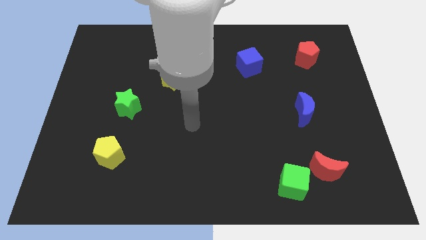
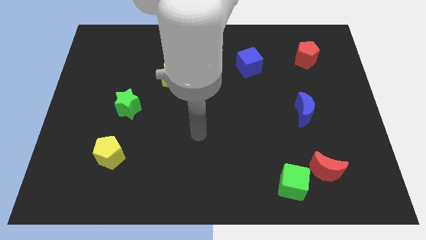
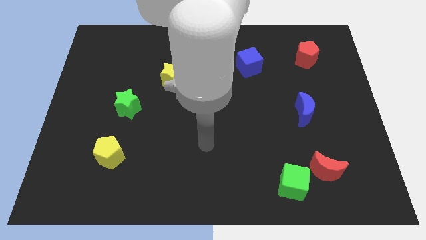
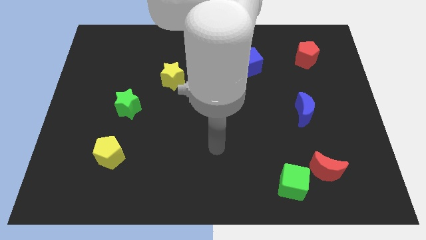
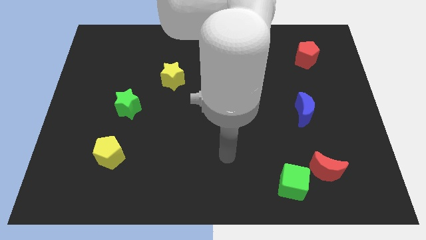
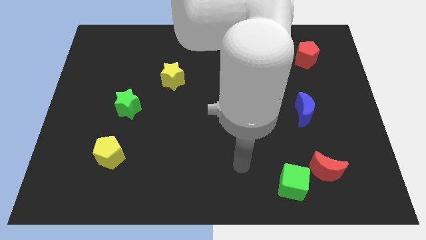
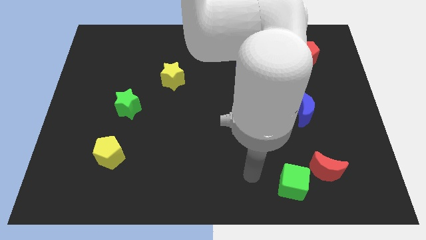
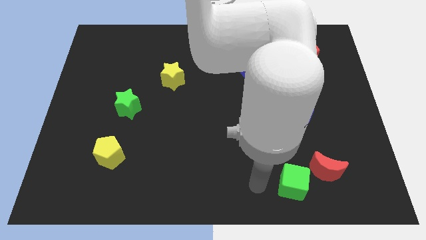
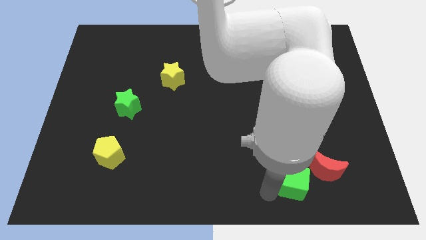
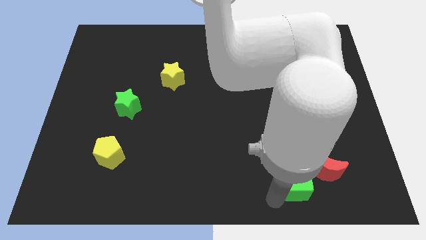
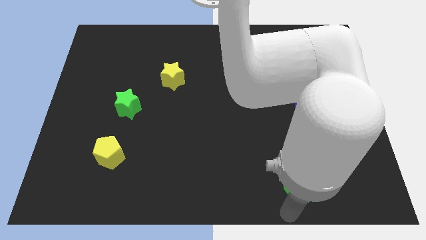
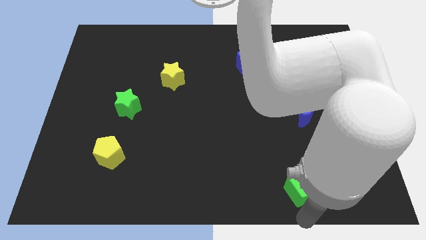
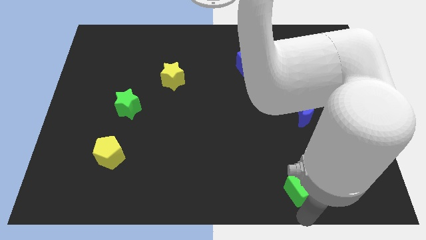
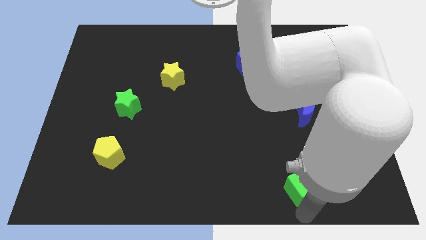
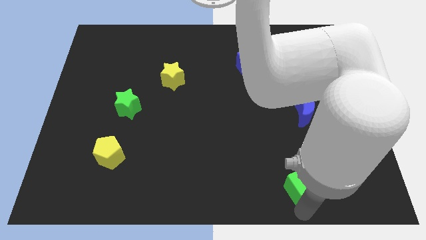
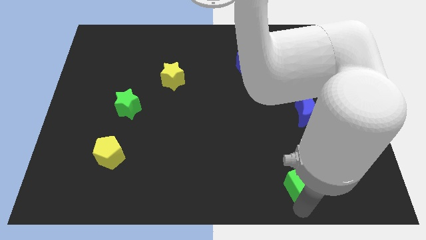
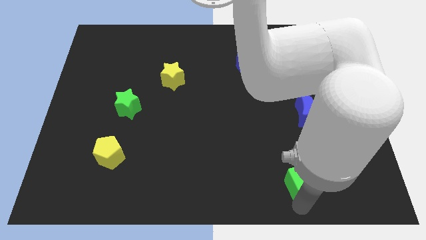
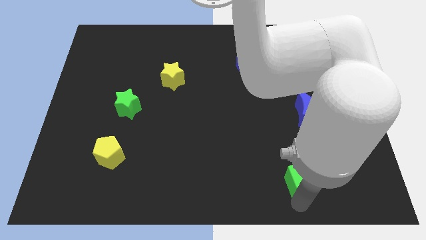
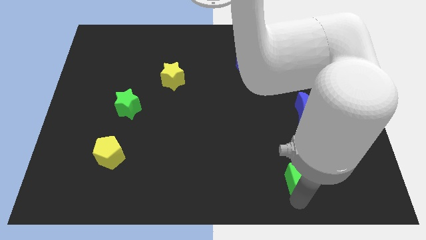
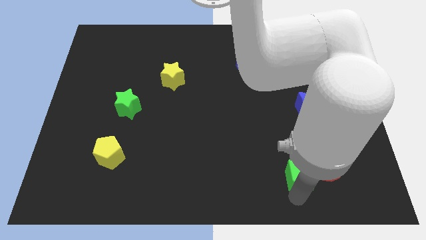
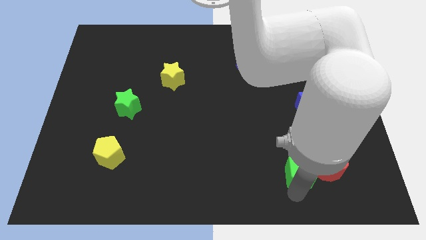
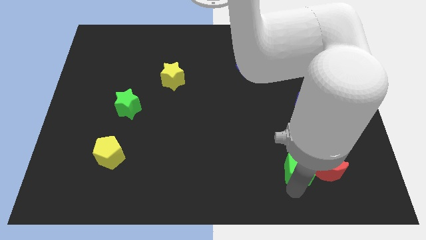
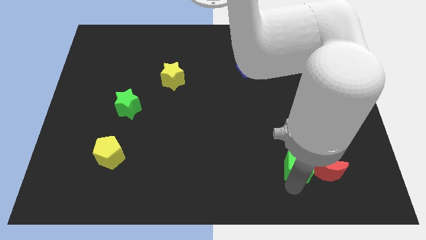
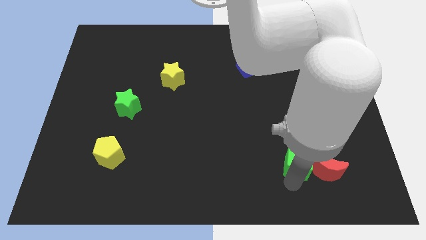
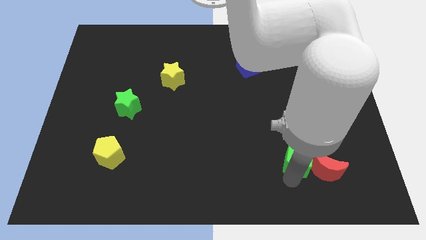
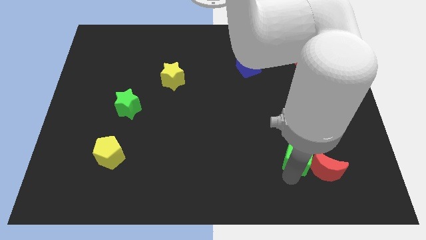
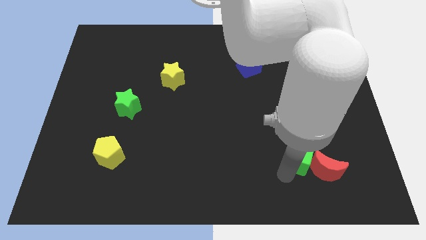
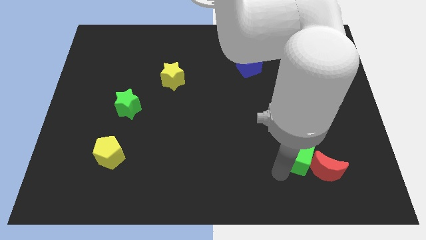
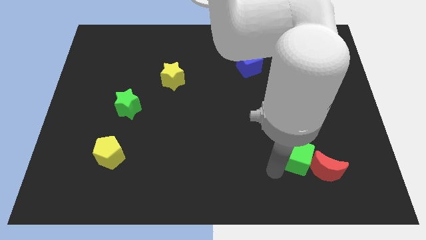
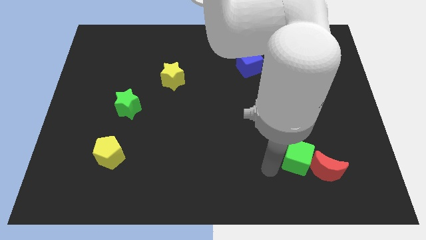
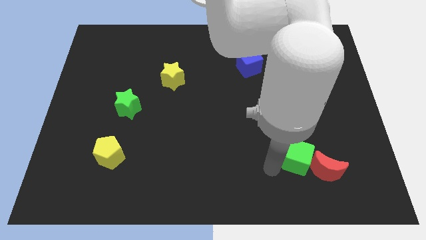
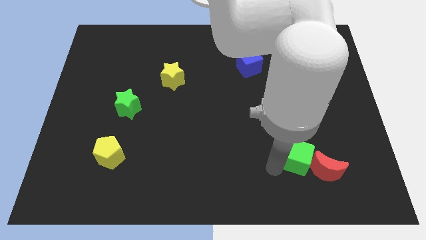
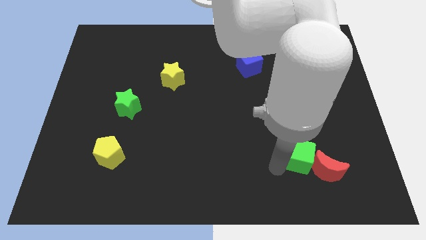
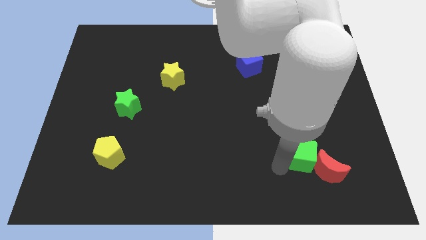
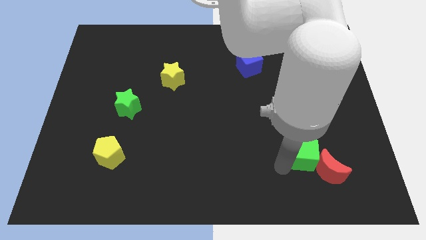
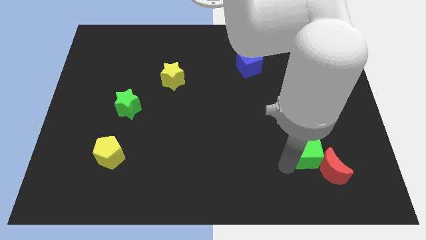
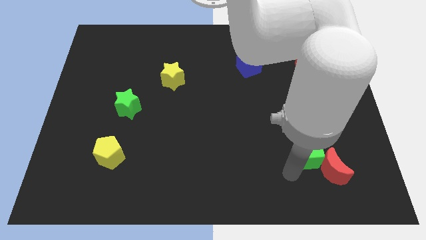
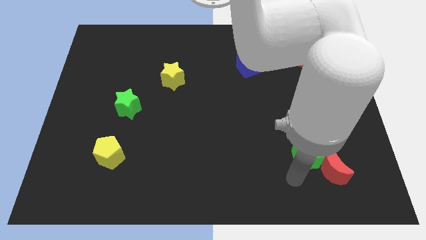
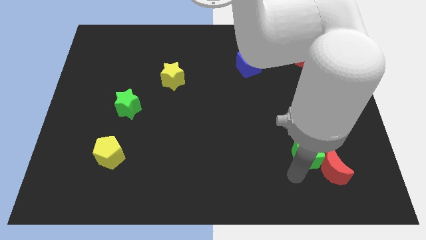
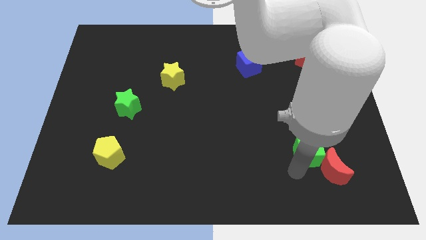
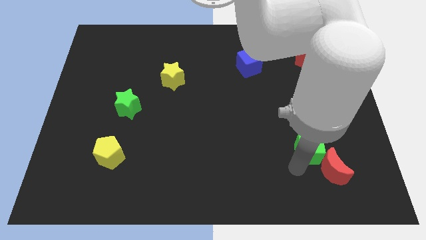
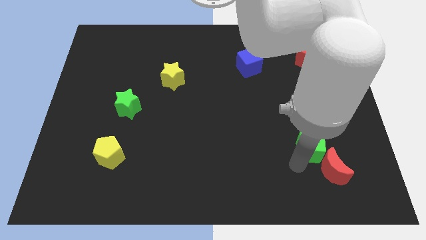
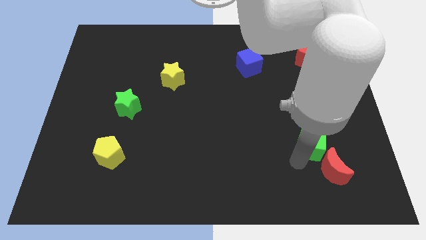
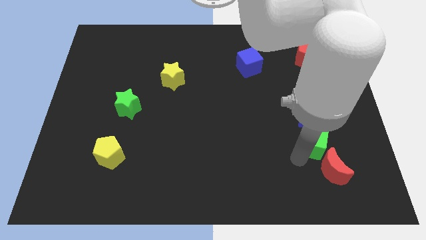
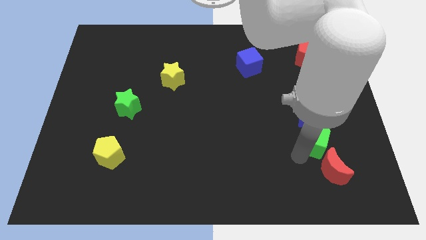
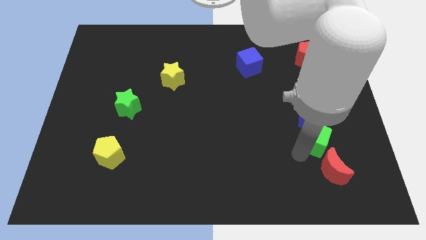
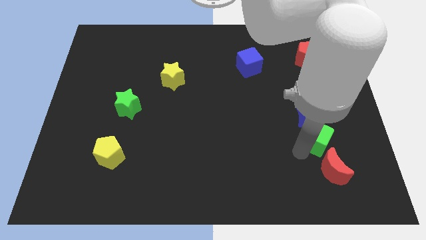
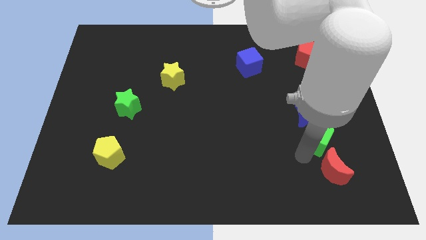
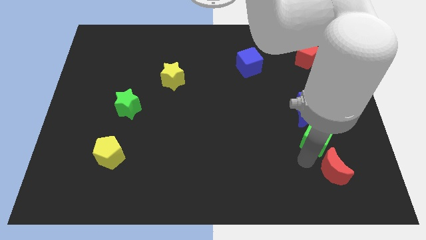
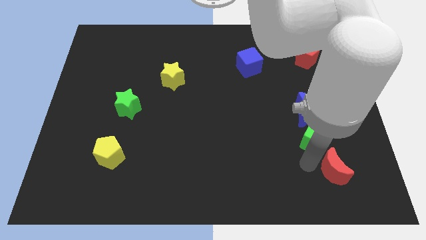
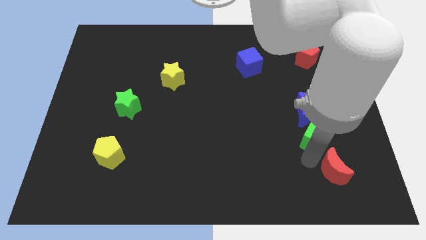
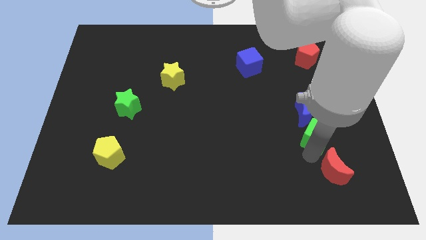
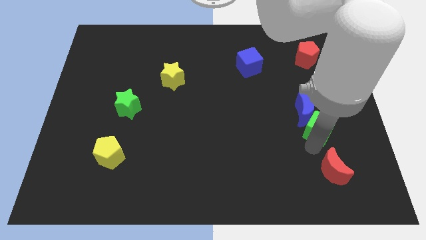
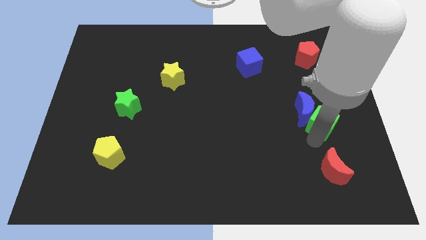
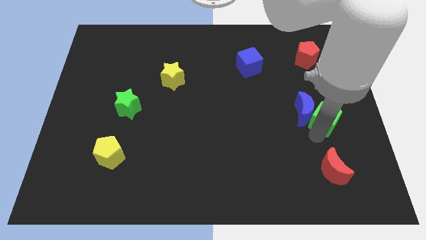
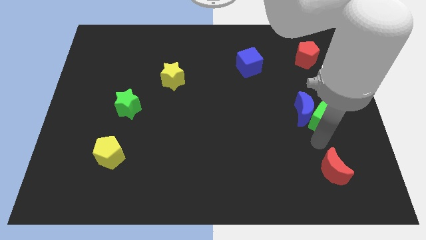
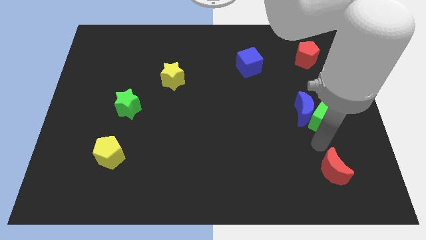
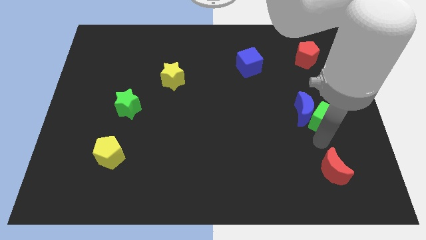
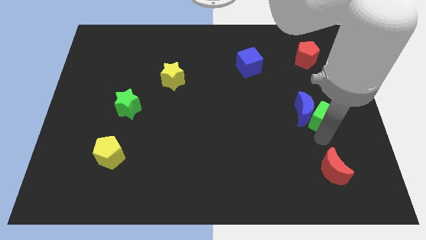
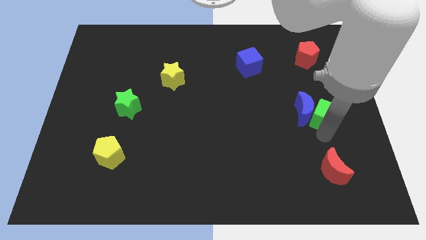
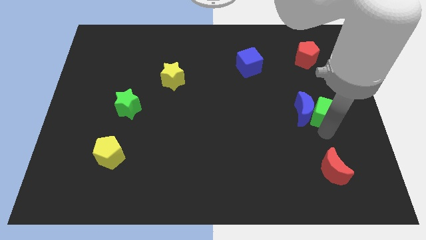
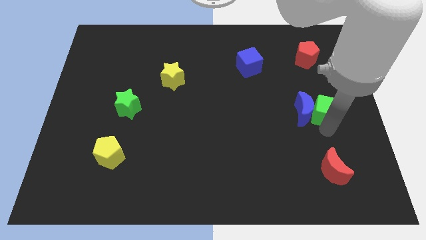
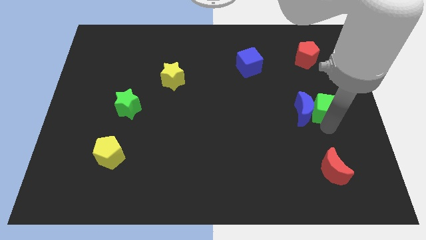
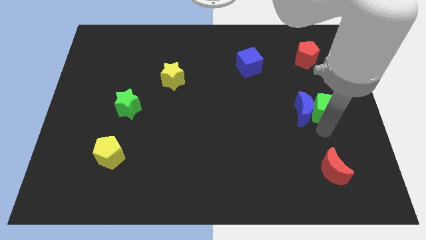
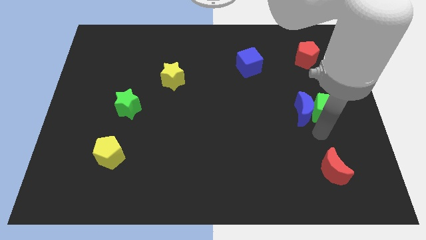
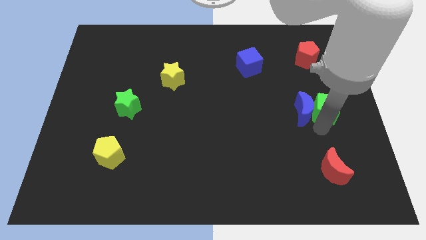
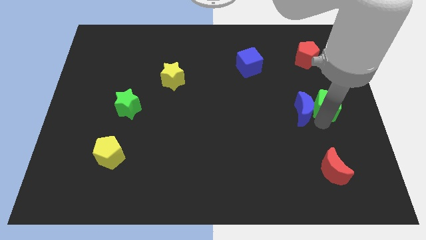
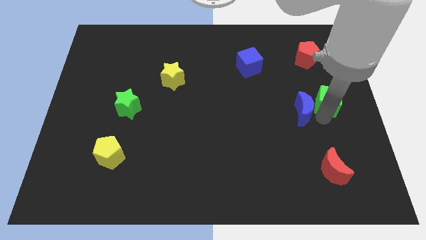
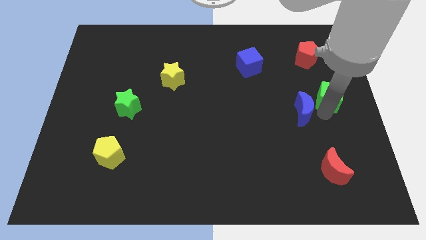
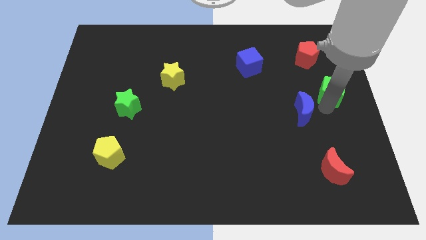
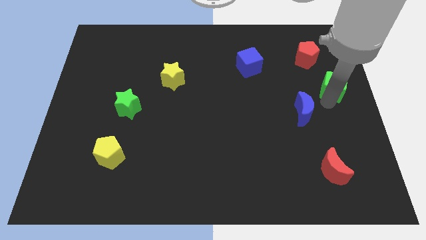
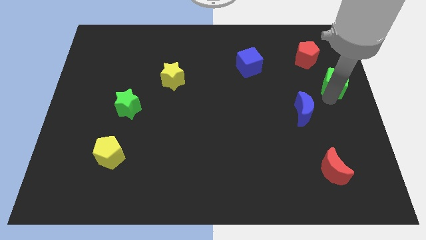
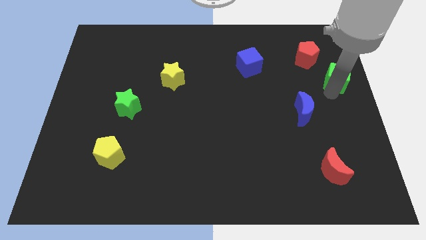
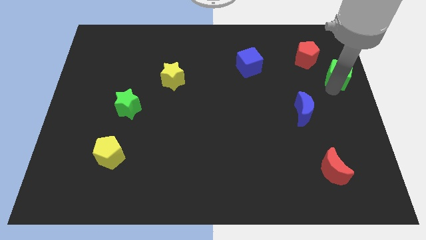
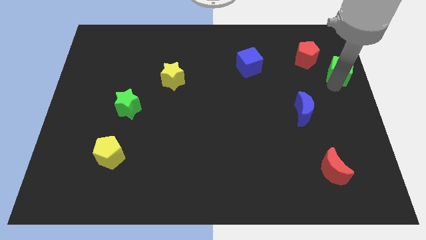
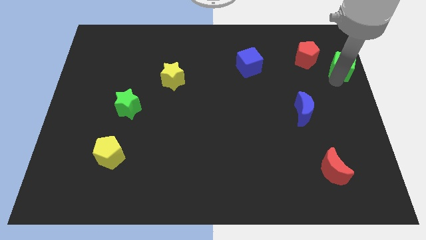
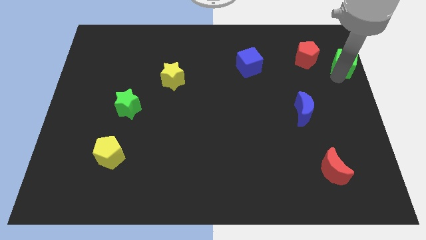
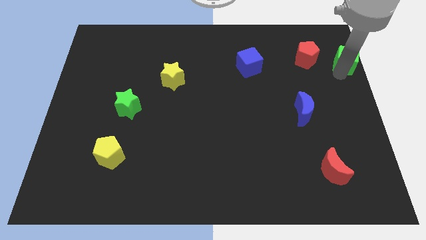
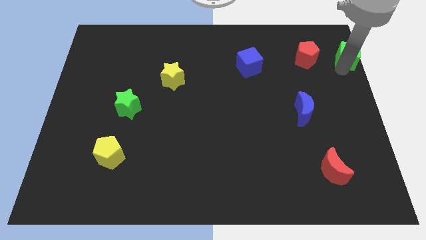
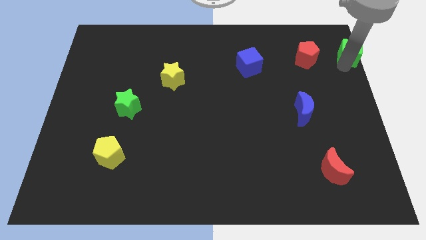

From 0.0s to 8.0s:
push the green cube to the top right of the board
